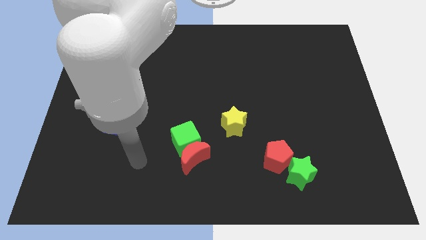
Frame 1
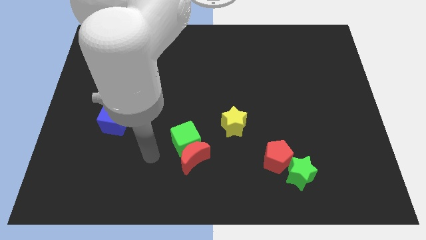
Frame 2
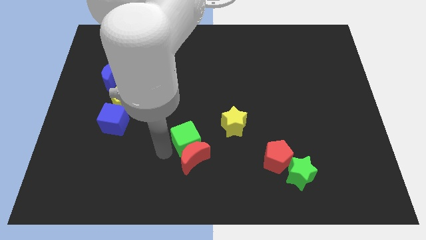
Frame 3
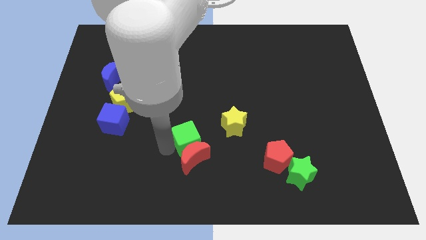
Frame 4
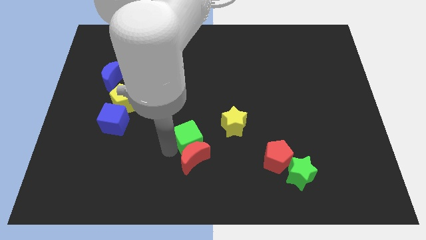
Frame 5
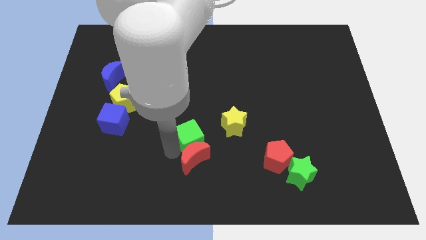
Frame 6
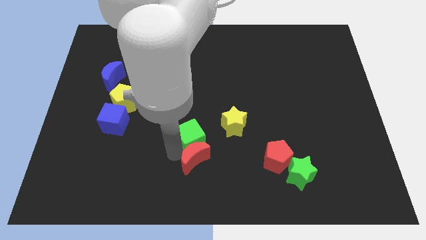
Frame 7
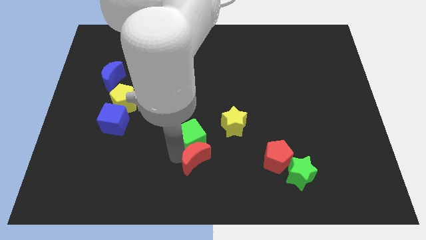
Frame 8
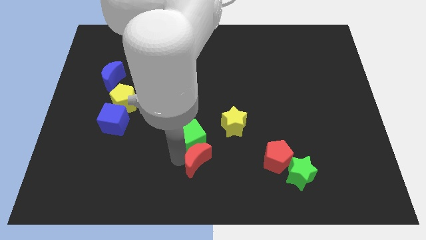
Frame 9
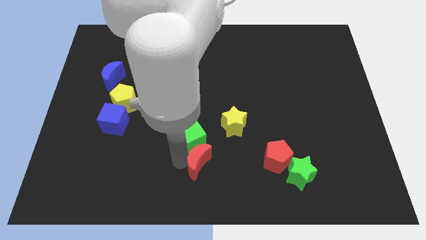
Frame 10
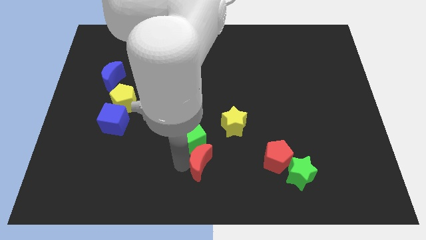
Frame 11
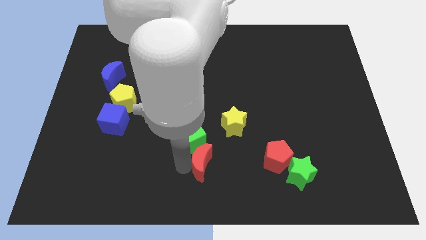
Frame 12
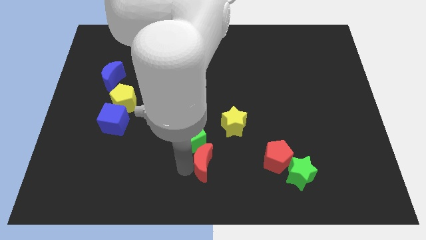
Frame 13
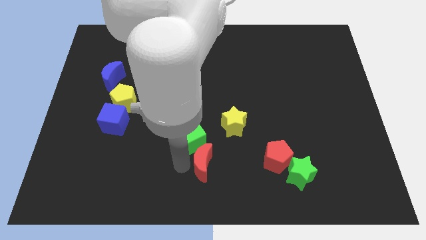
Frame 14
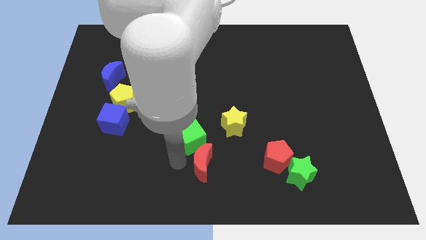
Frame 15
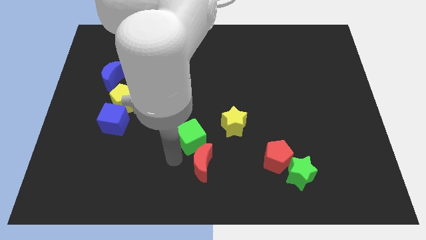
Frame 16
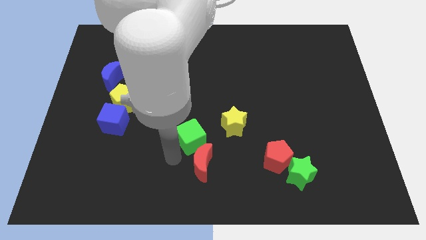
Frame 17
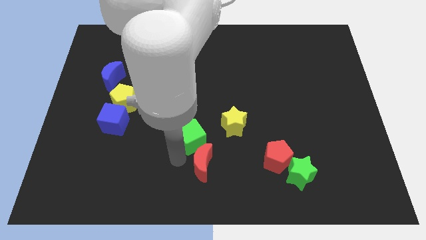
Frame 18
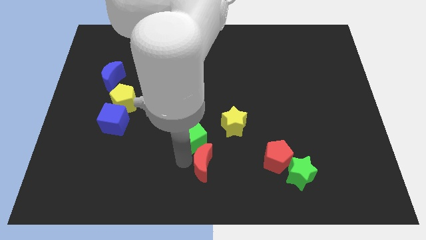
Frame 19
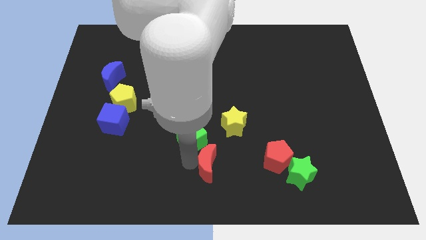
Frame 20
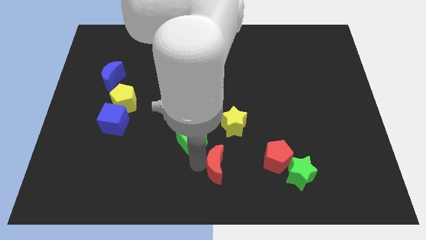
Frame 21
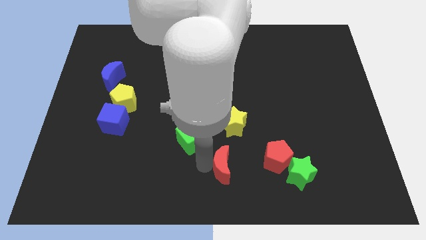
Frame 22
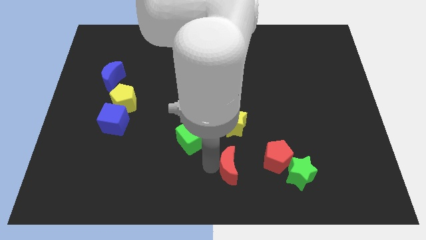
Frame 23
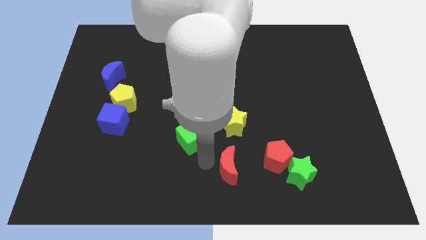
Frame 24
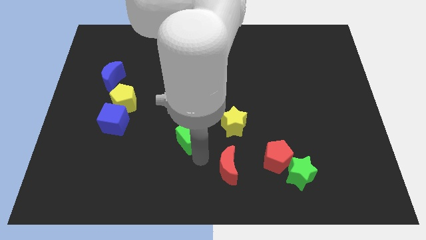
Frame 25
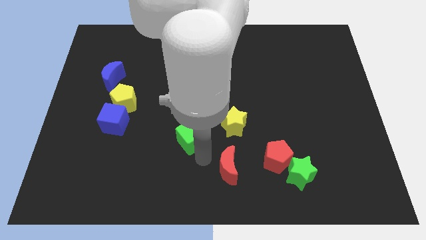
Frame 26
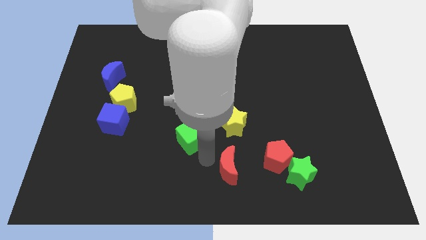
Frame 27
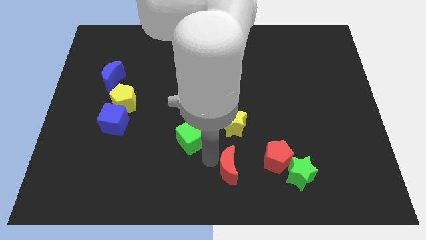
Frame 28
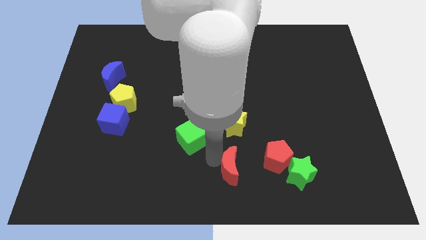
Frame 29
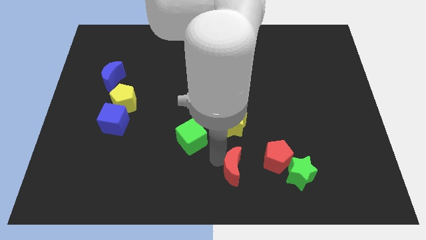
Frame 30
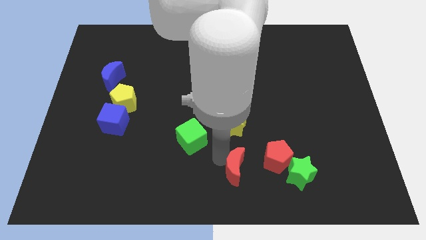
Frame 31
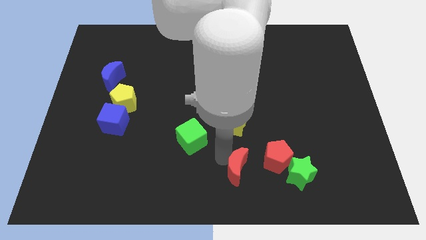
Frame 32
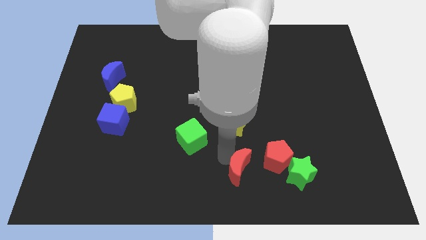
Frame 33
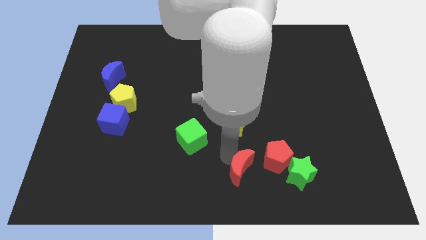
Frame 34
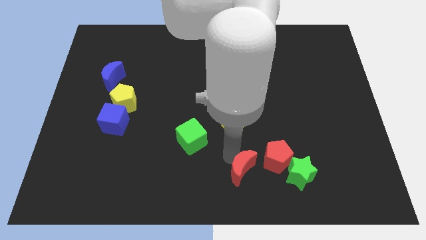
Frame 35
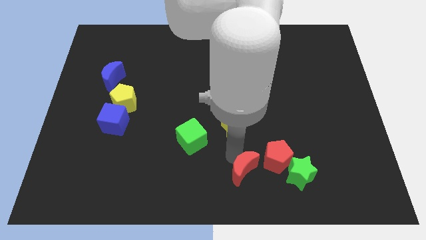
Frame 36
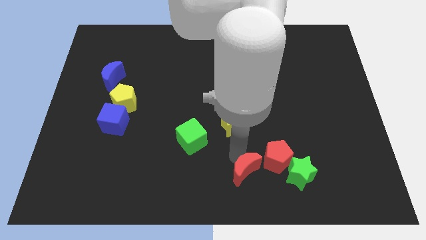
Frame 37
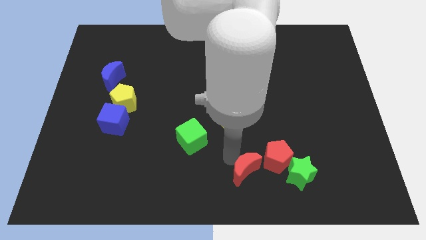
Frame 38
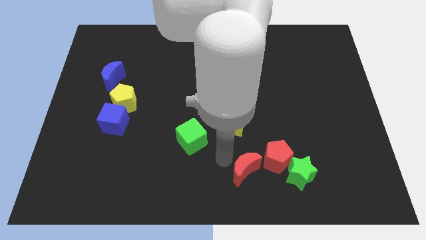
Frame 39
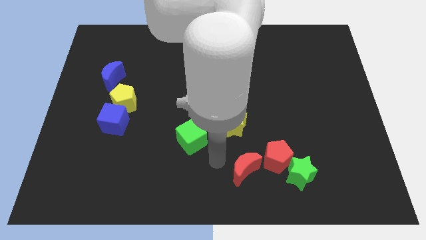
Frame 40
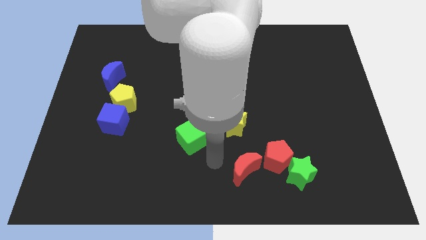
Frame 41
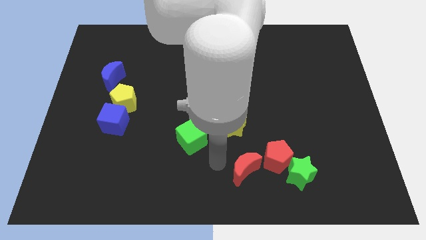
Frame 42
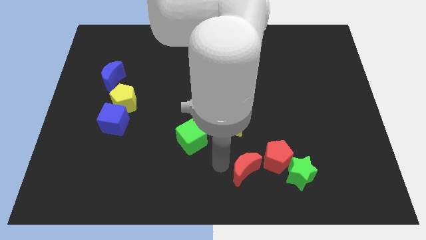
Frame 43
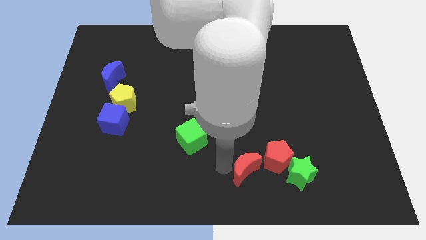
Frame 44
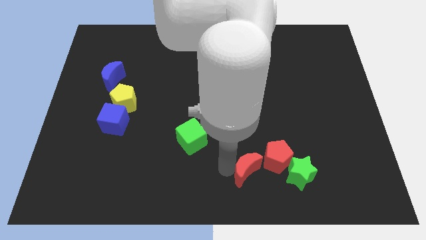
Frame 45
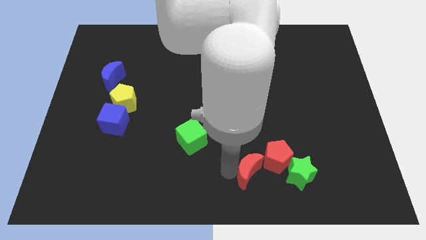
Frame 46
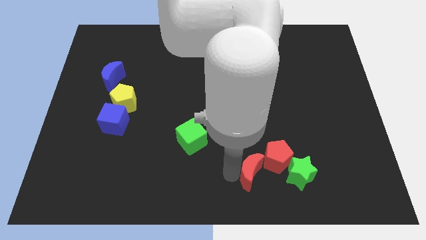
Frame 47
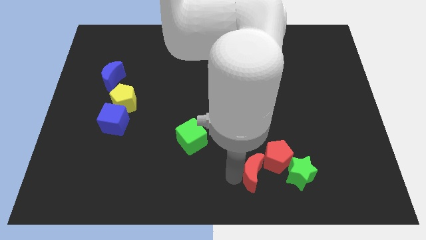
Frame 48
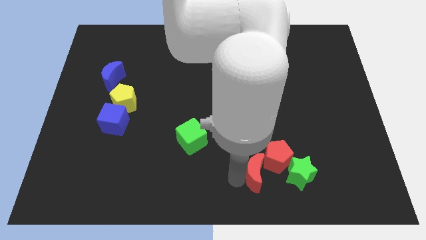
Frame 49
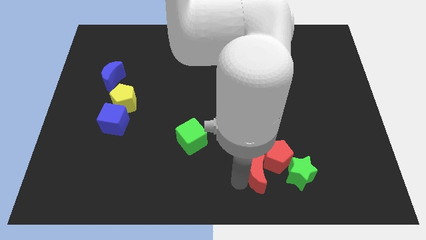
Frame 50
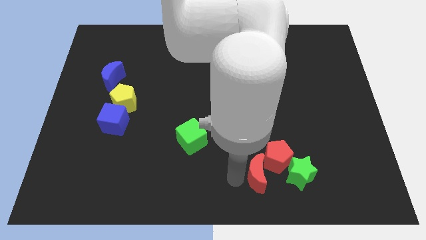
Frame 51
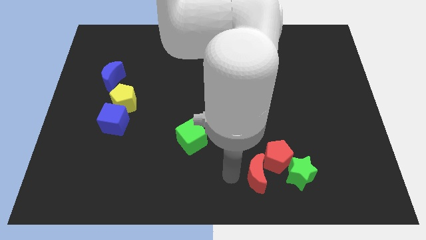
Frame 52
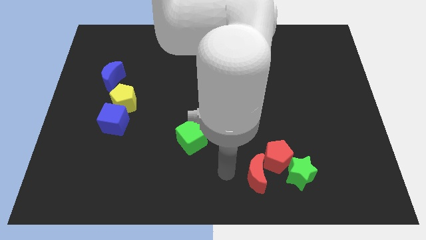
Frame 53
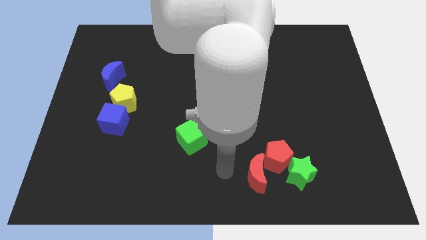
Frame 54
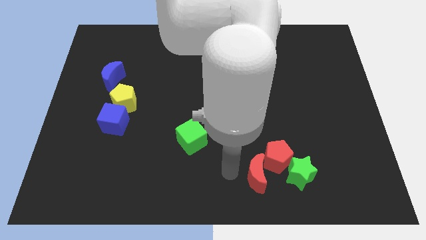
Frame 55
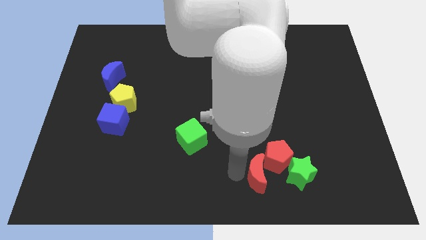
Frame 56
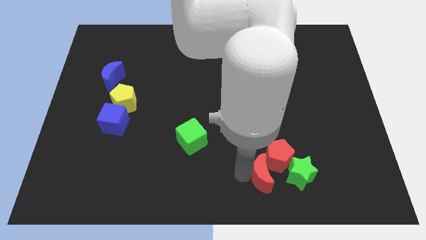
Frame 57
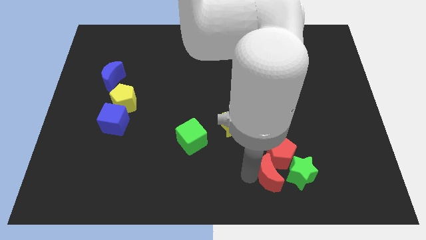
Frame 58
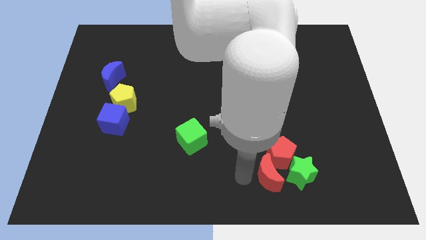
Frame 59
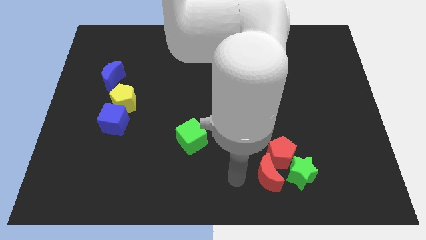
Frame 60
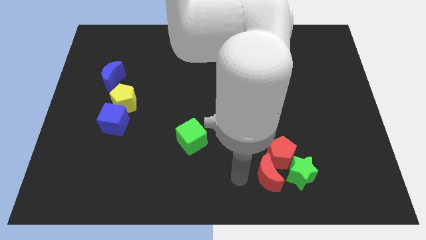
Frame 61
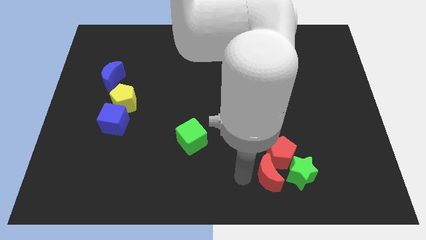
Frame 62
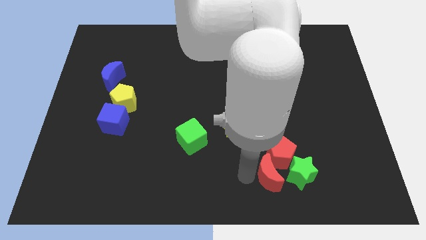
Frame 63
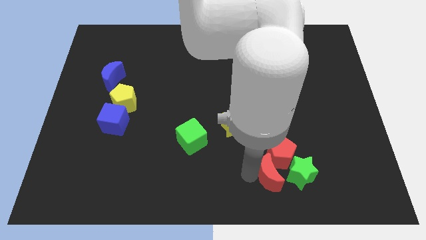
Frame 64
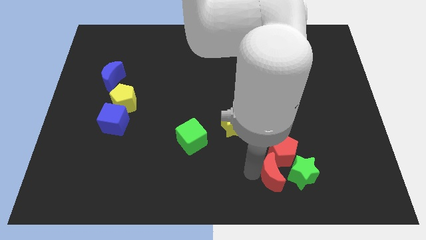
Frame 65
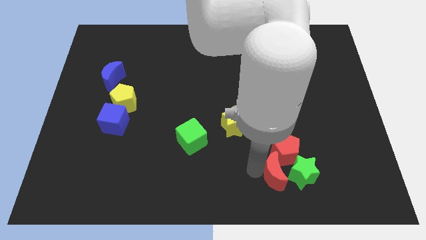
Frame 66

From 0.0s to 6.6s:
slide the red moon close to the green star

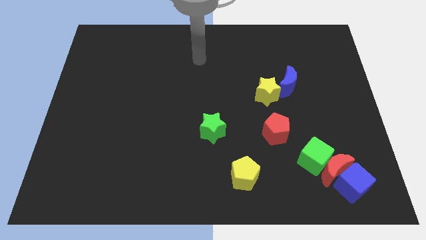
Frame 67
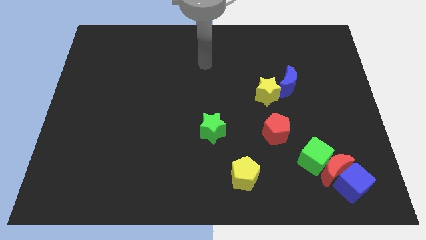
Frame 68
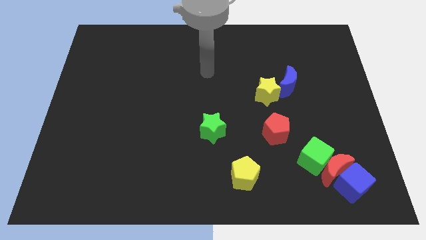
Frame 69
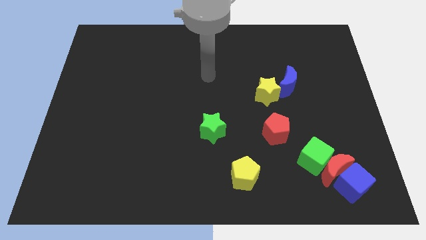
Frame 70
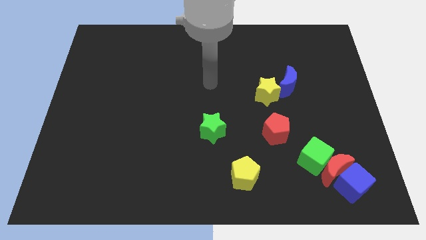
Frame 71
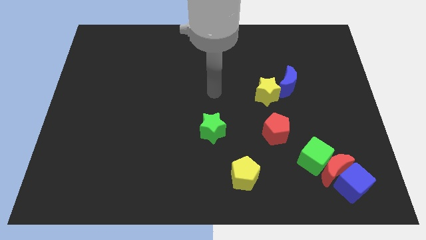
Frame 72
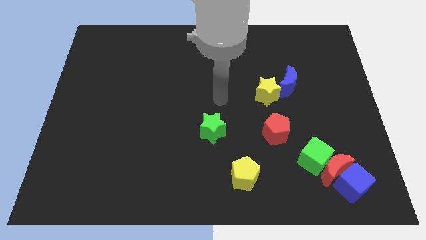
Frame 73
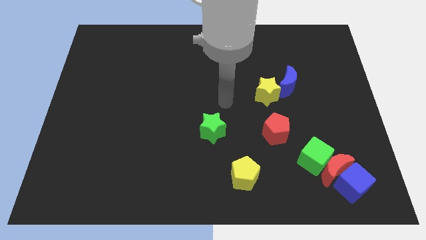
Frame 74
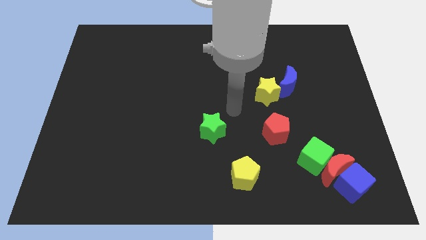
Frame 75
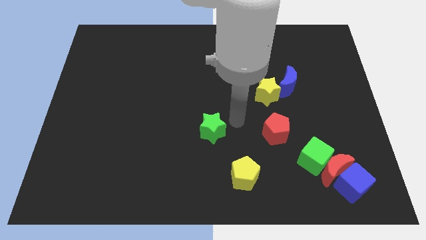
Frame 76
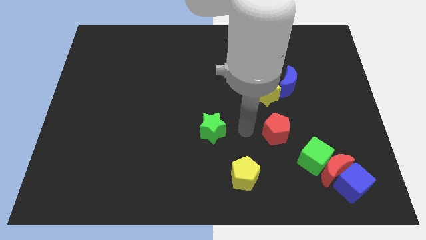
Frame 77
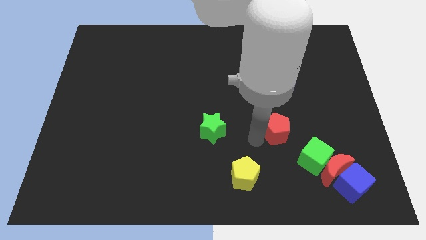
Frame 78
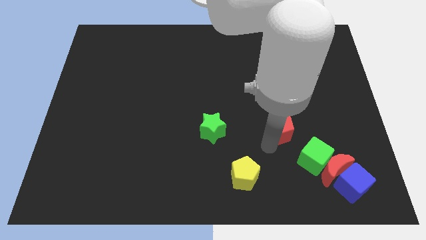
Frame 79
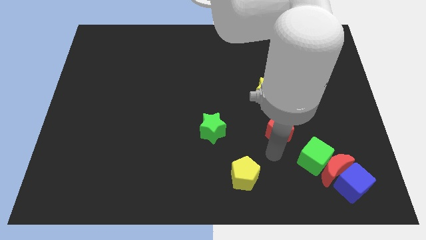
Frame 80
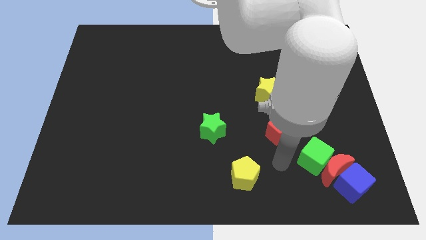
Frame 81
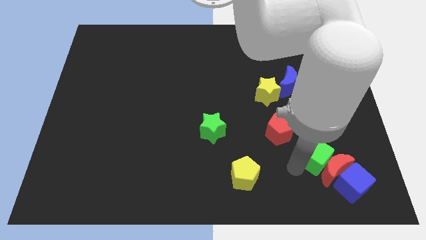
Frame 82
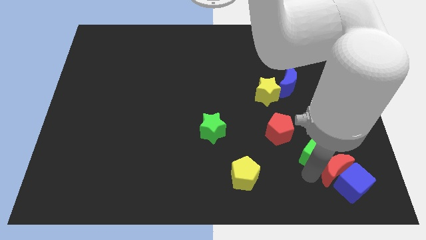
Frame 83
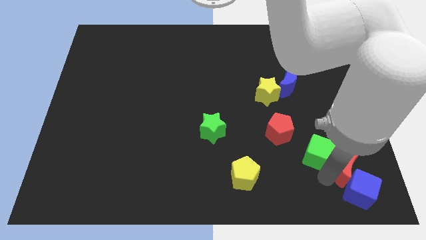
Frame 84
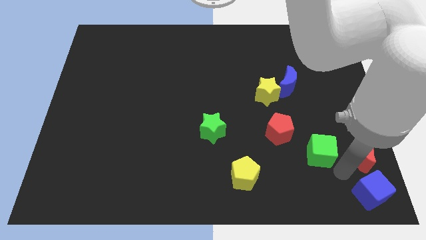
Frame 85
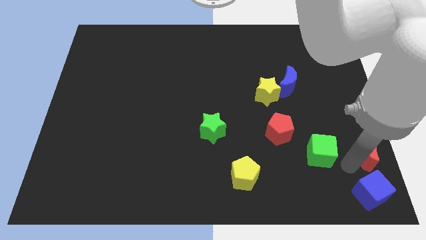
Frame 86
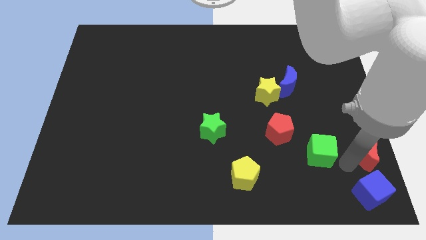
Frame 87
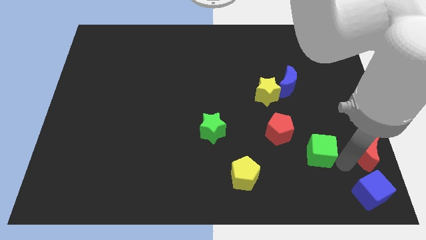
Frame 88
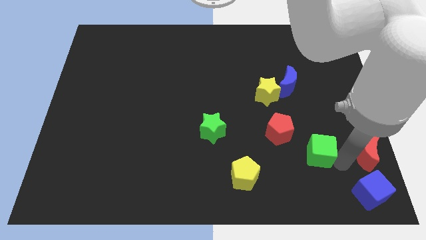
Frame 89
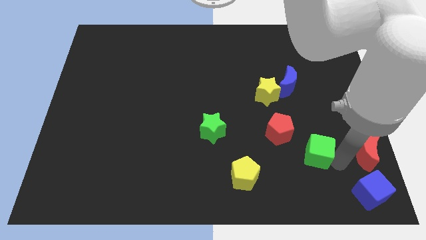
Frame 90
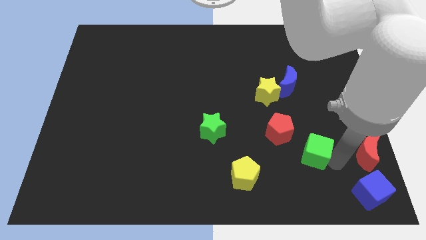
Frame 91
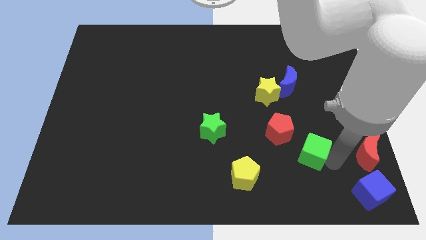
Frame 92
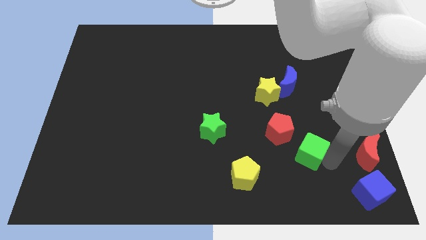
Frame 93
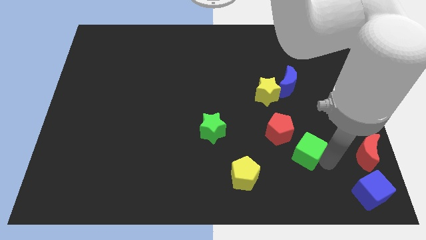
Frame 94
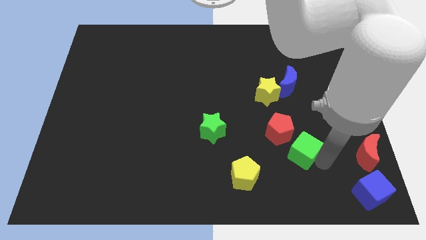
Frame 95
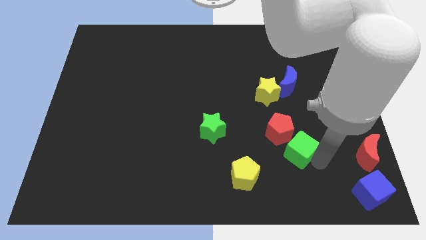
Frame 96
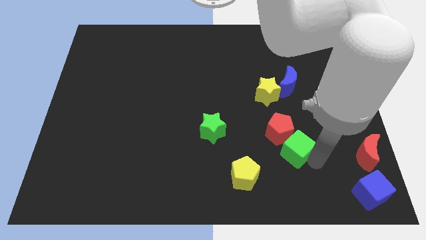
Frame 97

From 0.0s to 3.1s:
put the green cube close to the red pentagon
